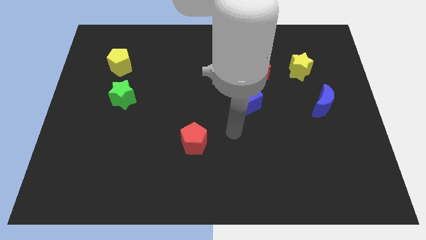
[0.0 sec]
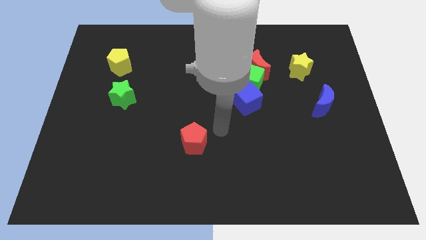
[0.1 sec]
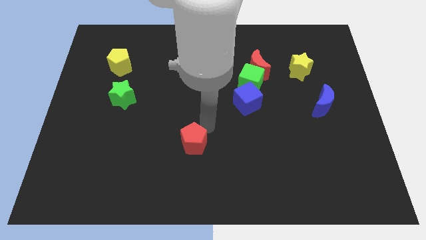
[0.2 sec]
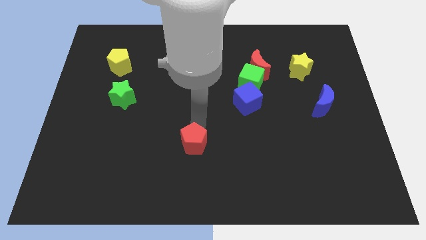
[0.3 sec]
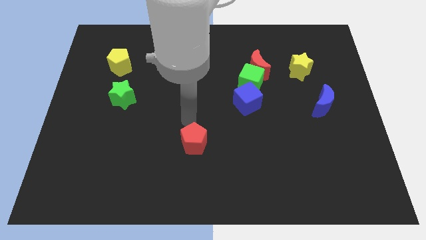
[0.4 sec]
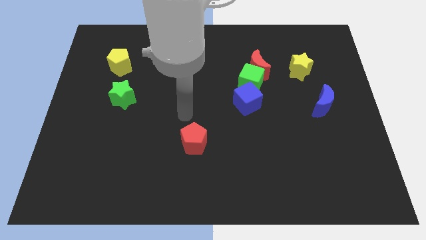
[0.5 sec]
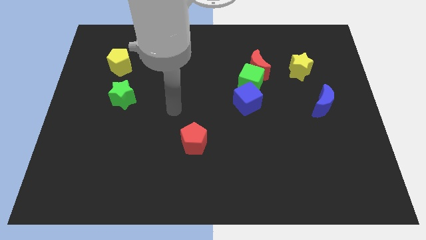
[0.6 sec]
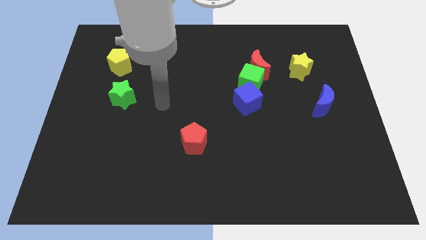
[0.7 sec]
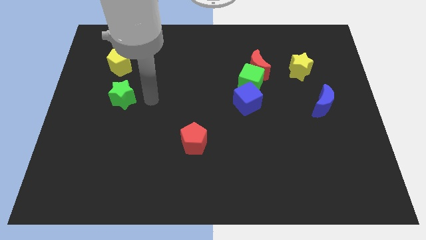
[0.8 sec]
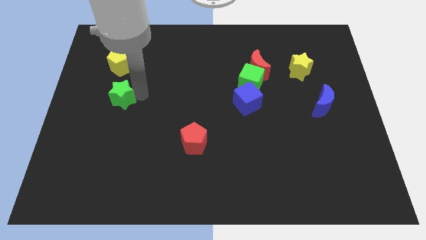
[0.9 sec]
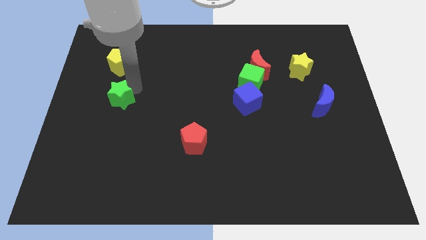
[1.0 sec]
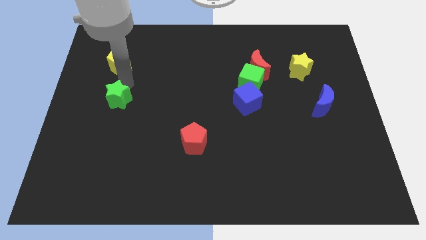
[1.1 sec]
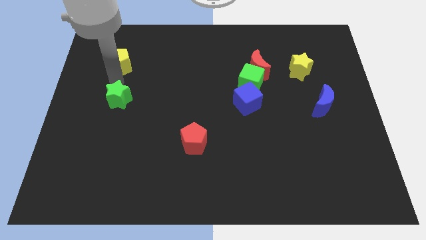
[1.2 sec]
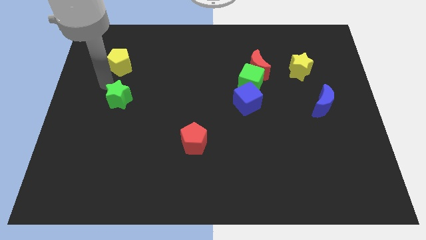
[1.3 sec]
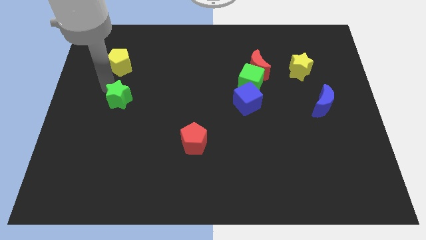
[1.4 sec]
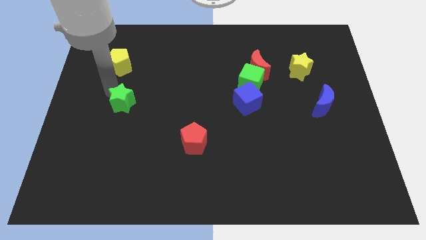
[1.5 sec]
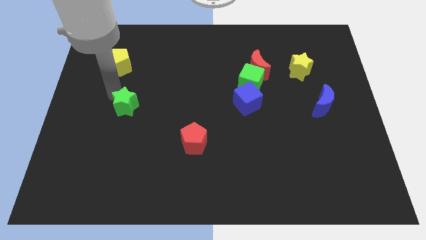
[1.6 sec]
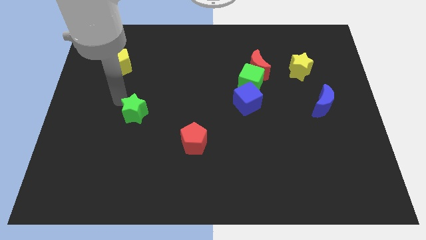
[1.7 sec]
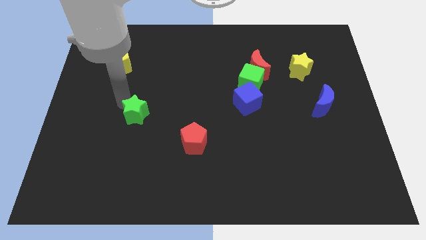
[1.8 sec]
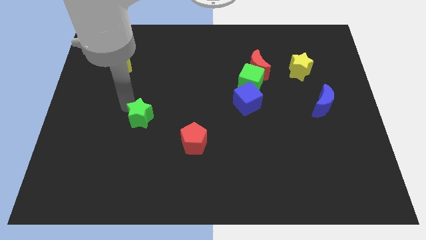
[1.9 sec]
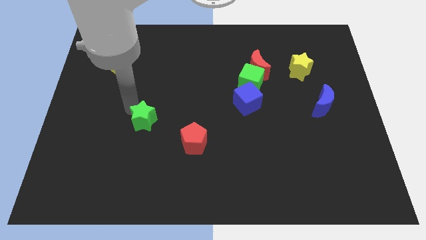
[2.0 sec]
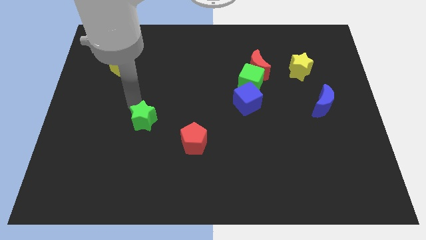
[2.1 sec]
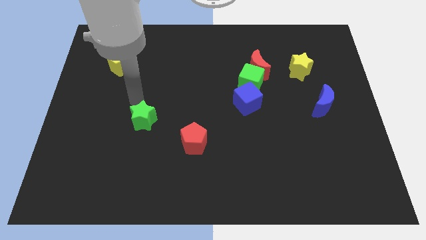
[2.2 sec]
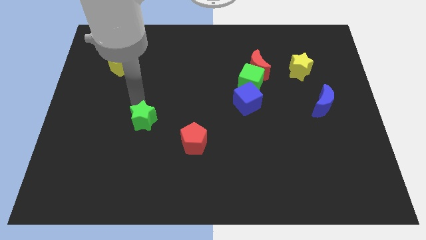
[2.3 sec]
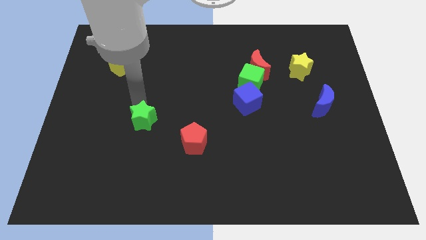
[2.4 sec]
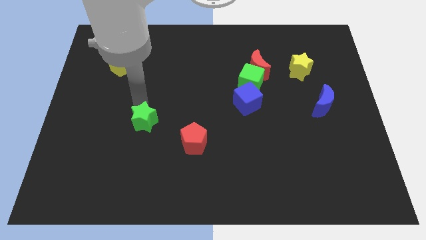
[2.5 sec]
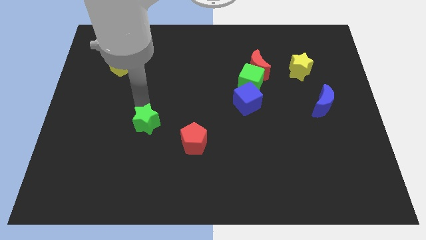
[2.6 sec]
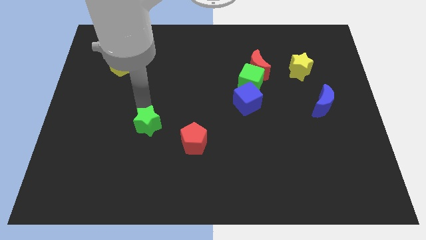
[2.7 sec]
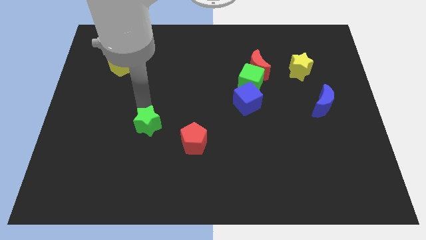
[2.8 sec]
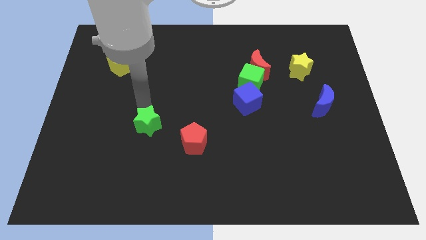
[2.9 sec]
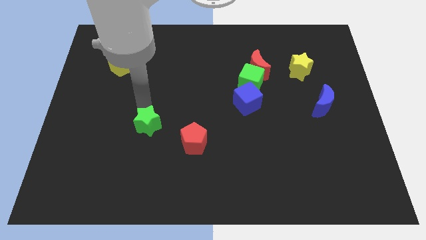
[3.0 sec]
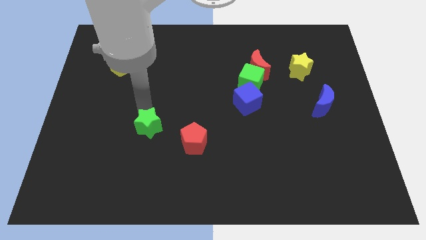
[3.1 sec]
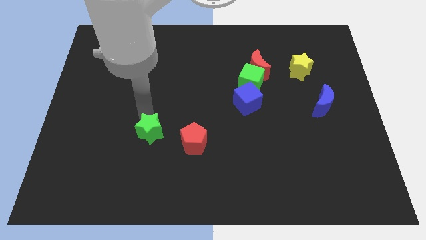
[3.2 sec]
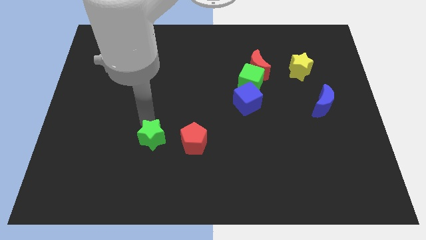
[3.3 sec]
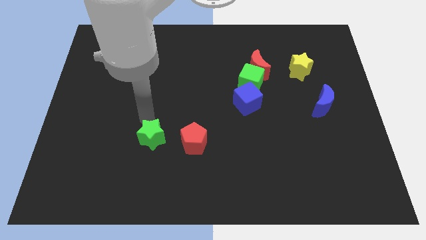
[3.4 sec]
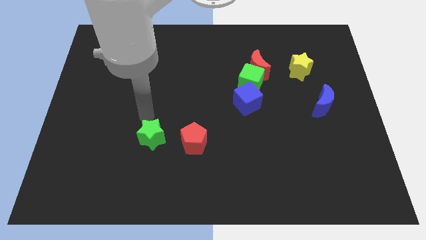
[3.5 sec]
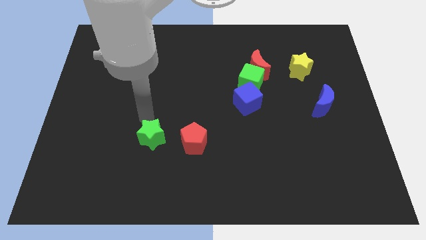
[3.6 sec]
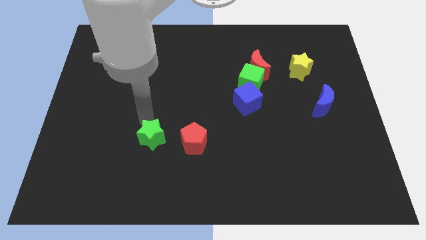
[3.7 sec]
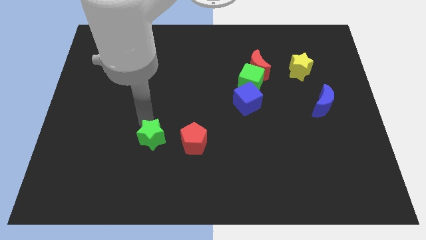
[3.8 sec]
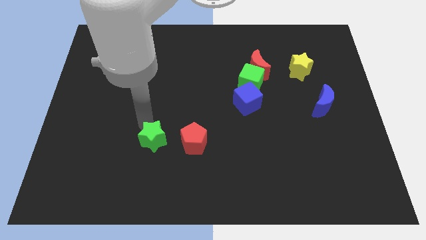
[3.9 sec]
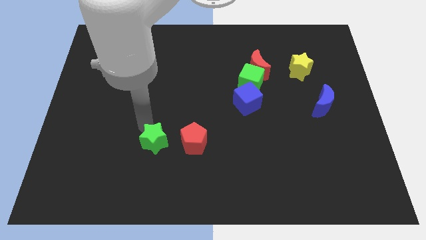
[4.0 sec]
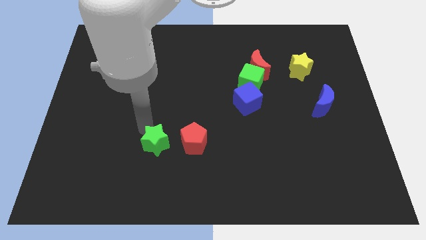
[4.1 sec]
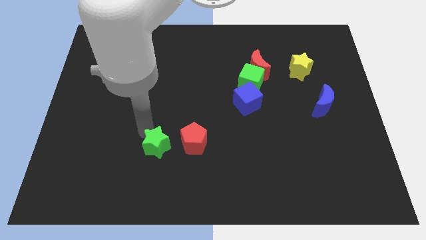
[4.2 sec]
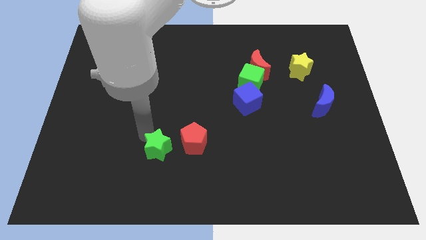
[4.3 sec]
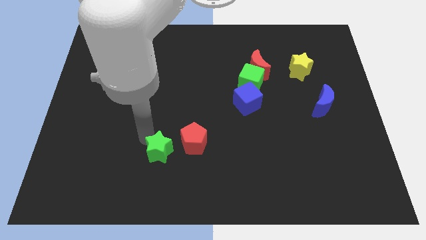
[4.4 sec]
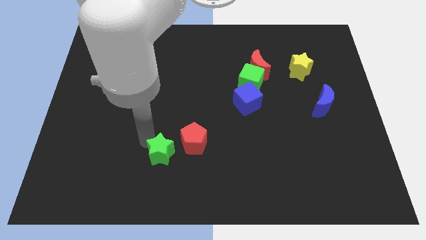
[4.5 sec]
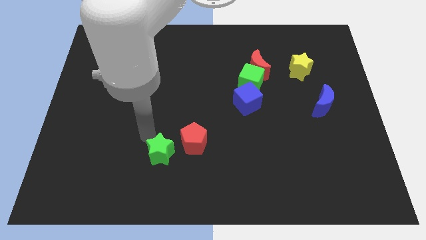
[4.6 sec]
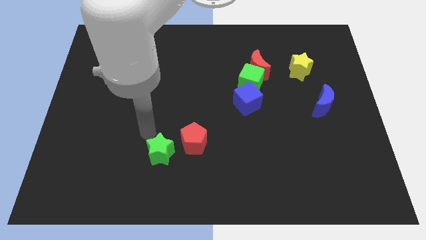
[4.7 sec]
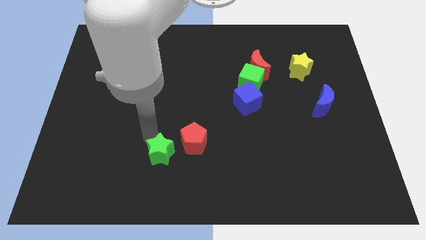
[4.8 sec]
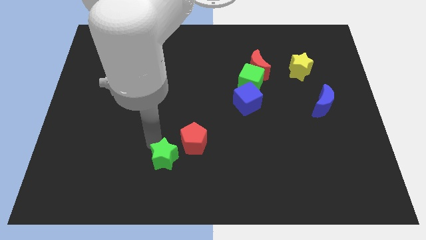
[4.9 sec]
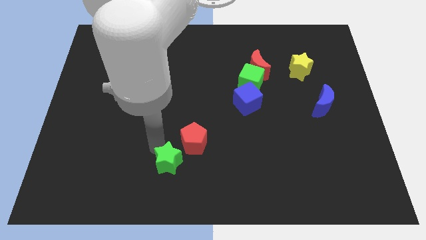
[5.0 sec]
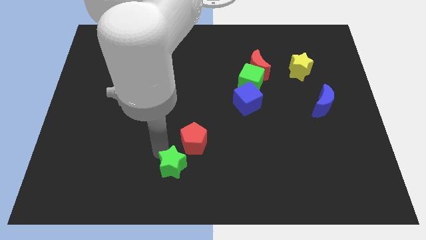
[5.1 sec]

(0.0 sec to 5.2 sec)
put the green star to the bottom side

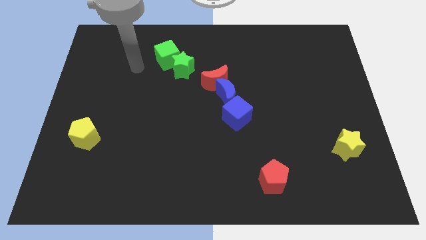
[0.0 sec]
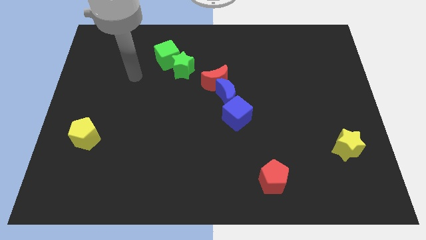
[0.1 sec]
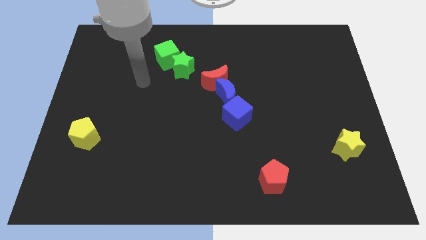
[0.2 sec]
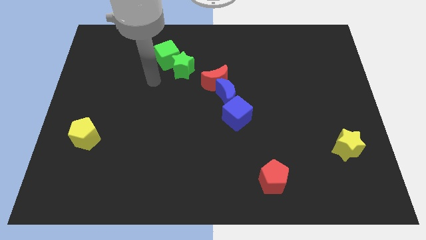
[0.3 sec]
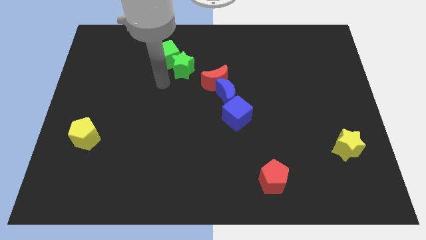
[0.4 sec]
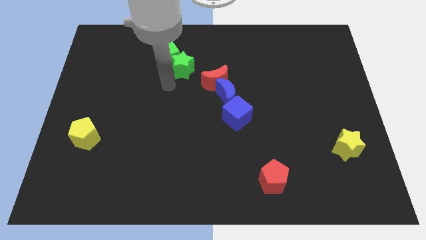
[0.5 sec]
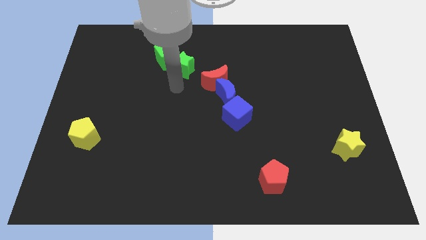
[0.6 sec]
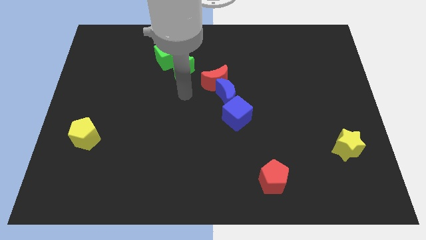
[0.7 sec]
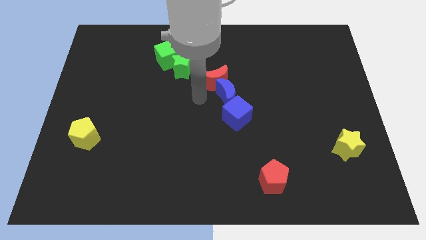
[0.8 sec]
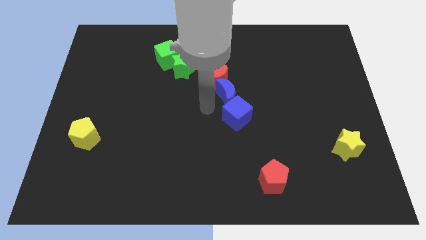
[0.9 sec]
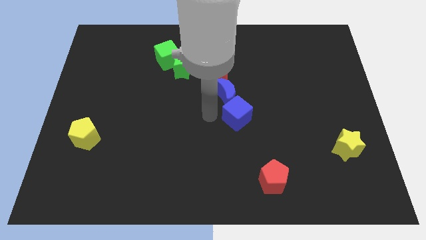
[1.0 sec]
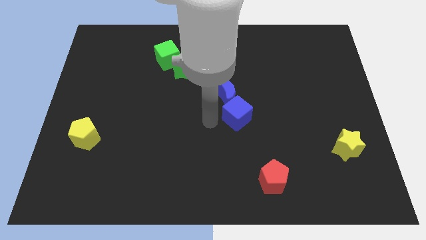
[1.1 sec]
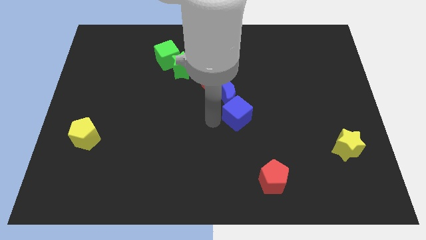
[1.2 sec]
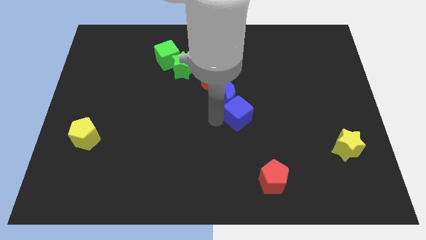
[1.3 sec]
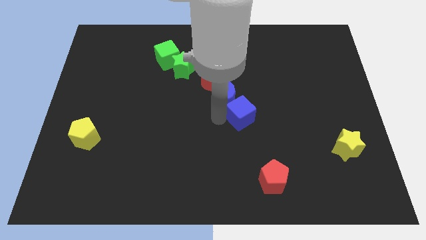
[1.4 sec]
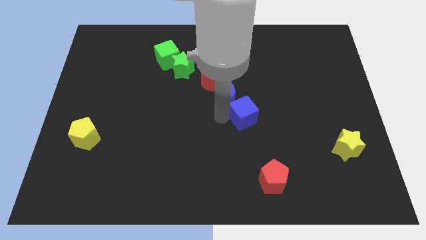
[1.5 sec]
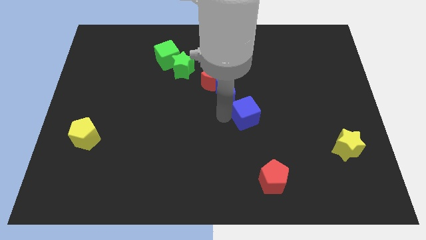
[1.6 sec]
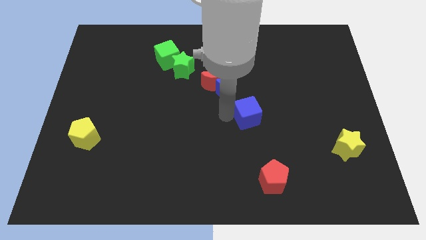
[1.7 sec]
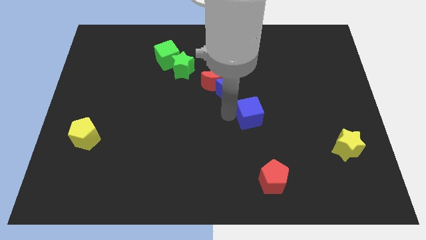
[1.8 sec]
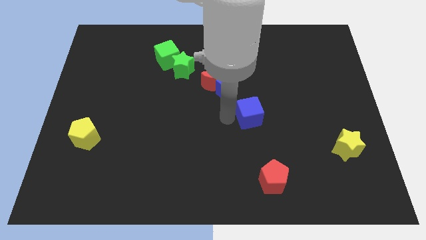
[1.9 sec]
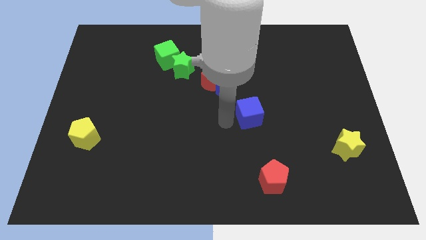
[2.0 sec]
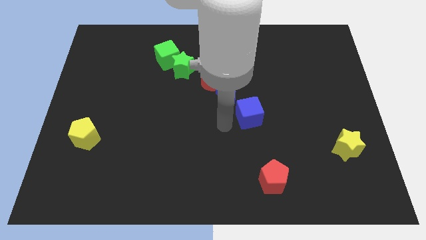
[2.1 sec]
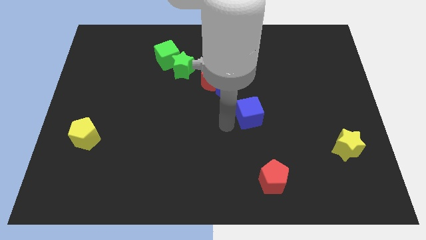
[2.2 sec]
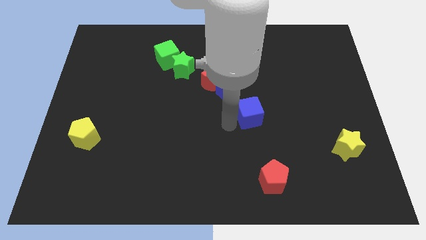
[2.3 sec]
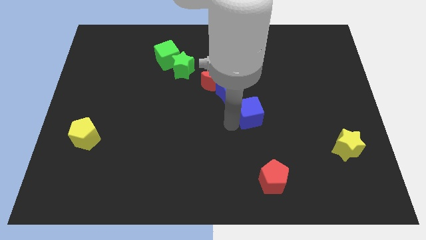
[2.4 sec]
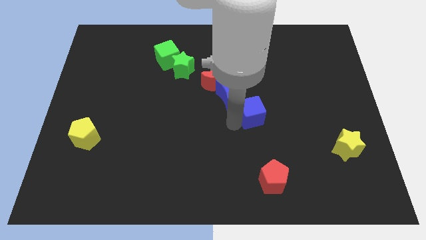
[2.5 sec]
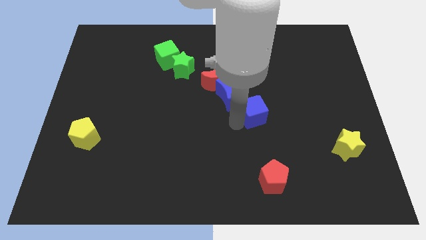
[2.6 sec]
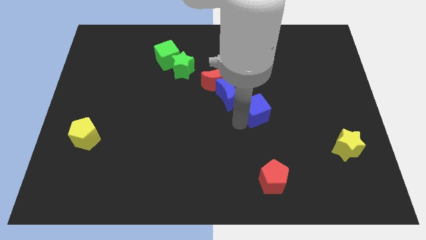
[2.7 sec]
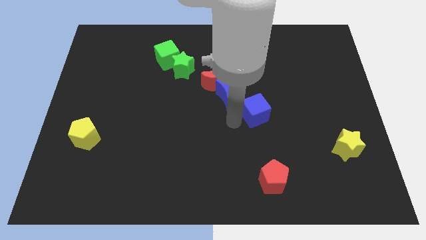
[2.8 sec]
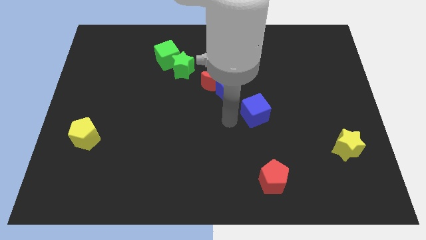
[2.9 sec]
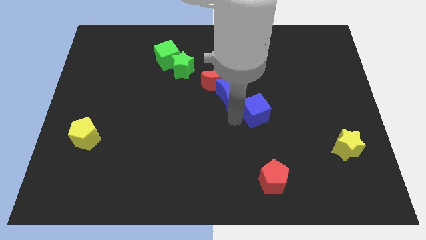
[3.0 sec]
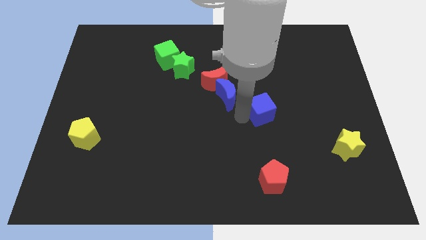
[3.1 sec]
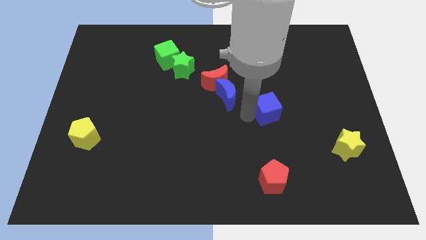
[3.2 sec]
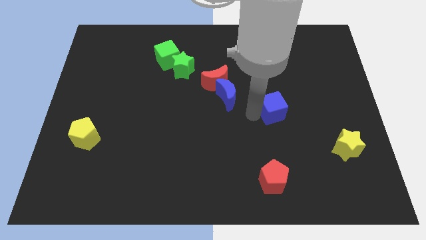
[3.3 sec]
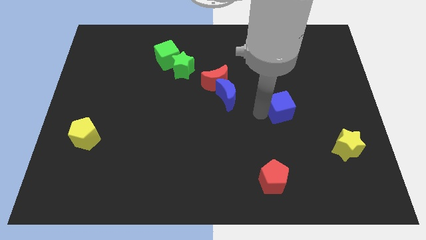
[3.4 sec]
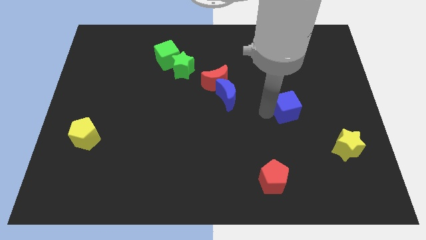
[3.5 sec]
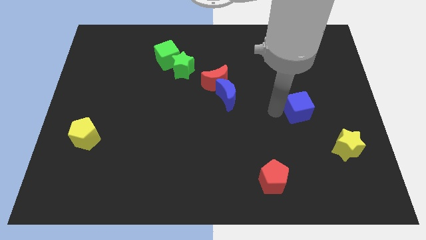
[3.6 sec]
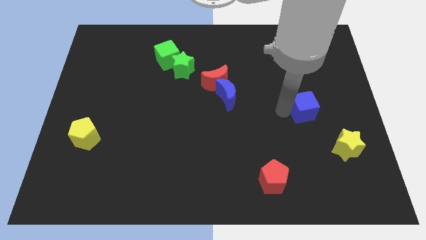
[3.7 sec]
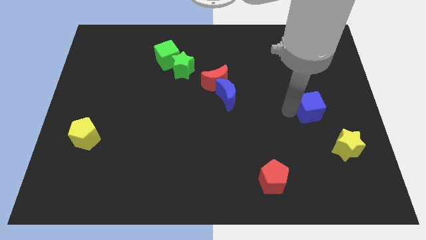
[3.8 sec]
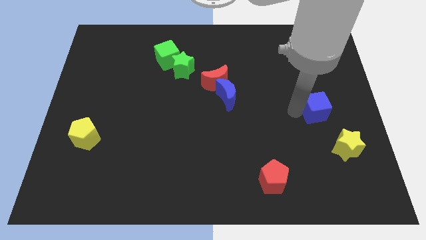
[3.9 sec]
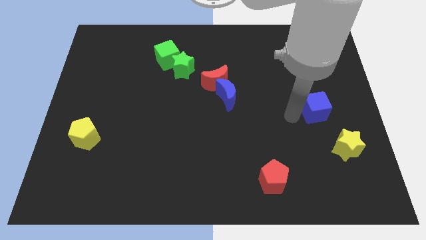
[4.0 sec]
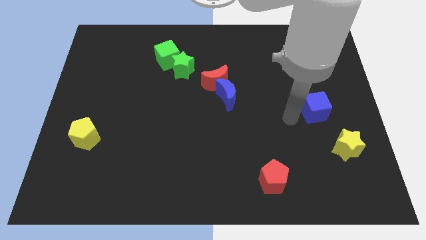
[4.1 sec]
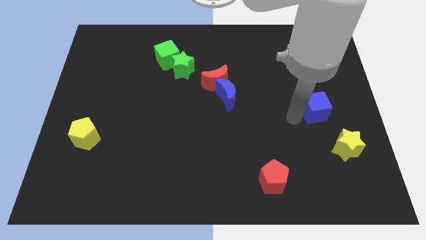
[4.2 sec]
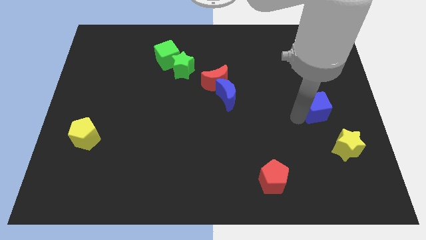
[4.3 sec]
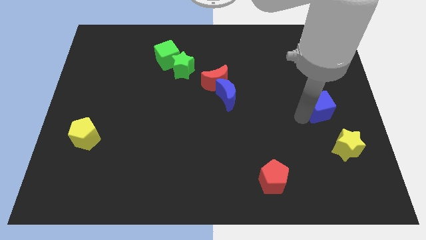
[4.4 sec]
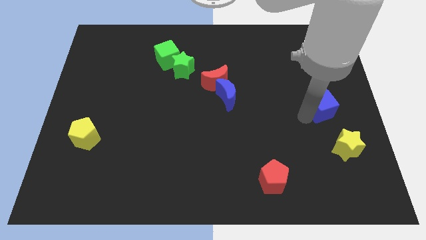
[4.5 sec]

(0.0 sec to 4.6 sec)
put the blue cube to the center right
